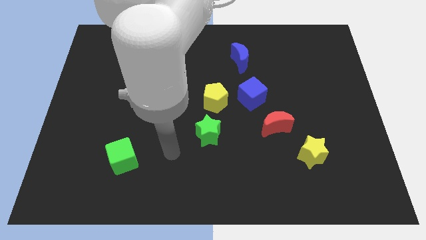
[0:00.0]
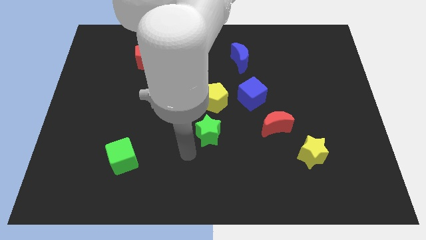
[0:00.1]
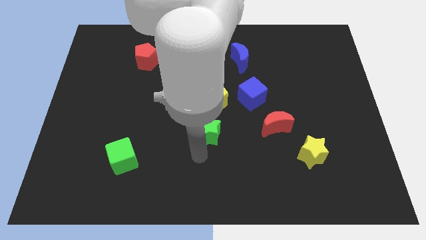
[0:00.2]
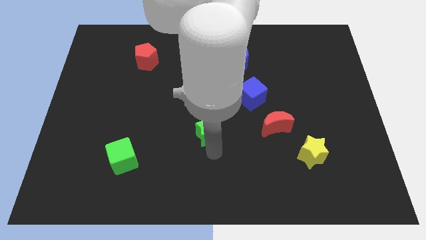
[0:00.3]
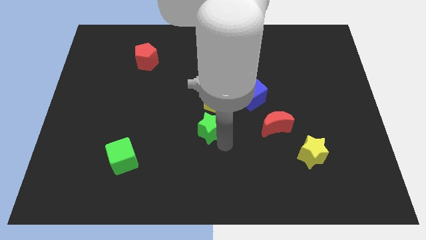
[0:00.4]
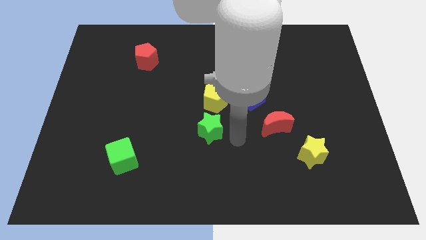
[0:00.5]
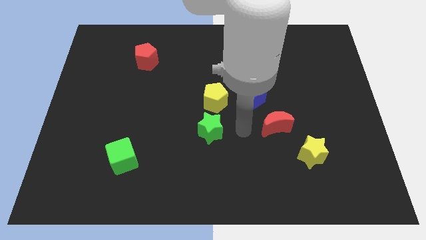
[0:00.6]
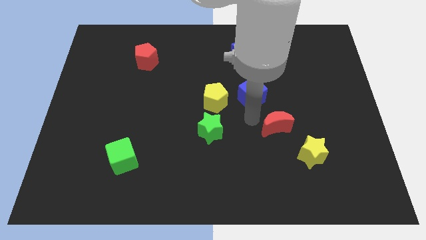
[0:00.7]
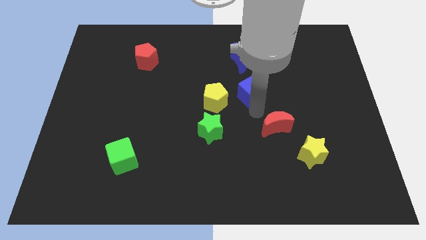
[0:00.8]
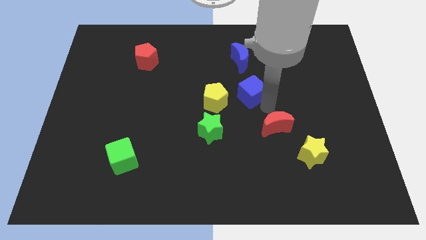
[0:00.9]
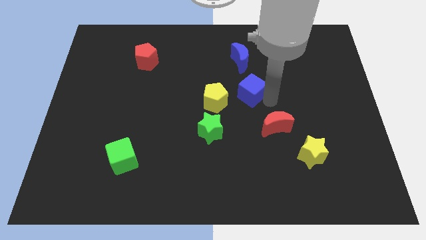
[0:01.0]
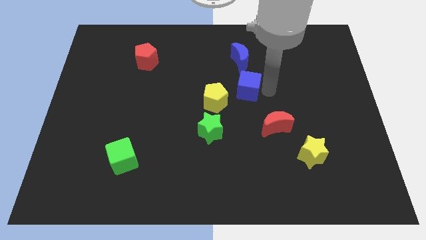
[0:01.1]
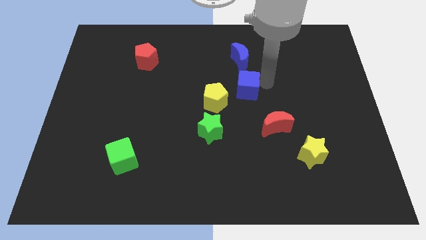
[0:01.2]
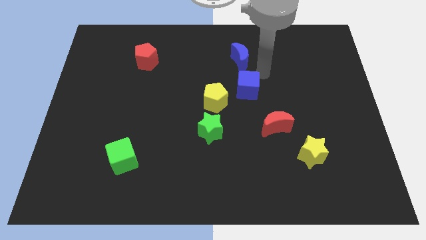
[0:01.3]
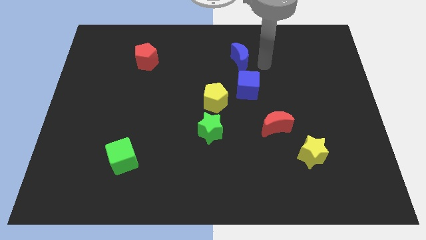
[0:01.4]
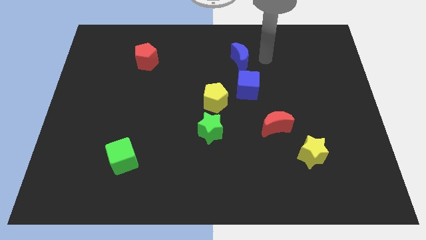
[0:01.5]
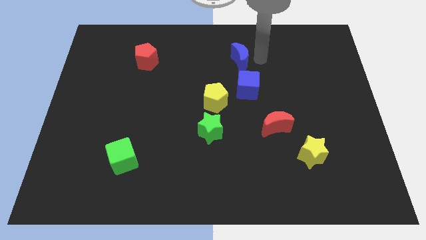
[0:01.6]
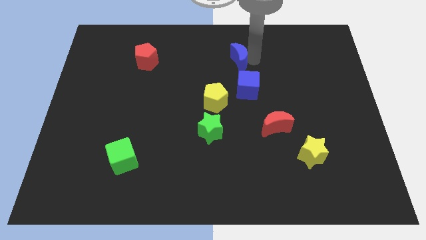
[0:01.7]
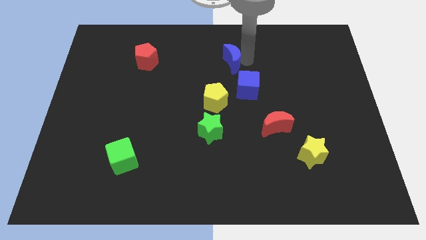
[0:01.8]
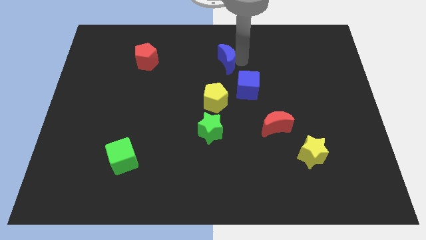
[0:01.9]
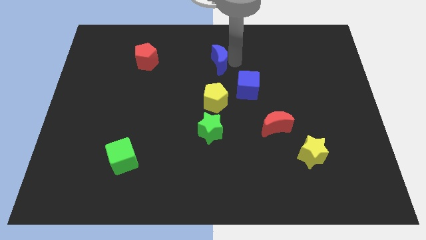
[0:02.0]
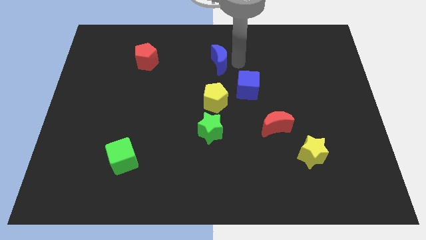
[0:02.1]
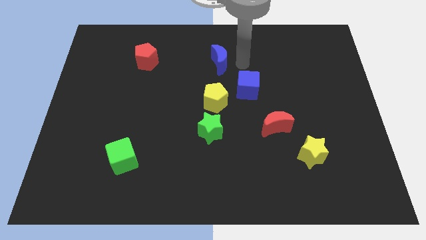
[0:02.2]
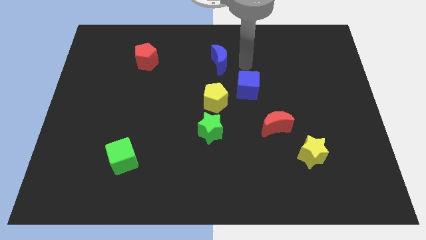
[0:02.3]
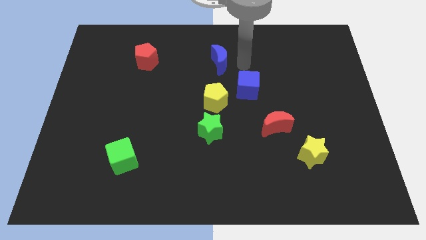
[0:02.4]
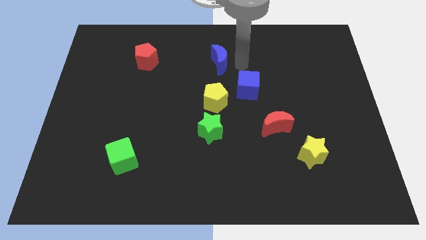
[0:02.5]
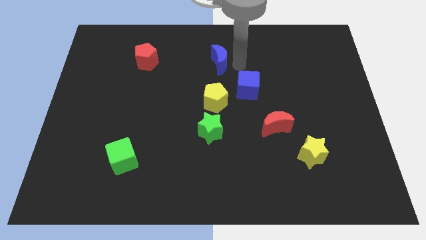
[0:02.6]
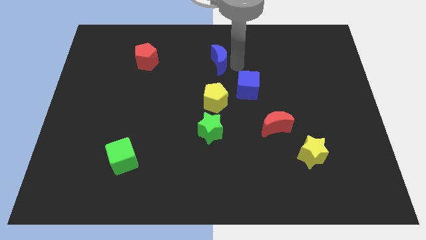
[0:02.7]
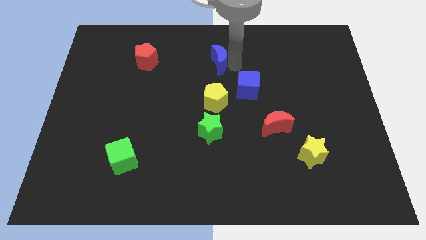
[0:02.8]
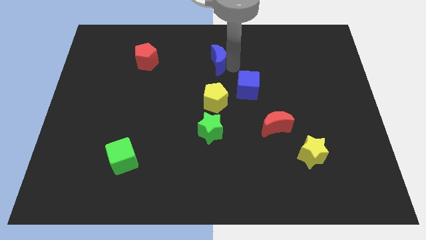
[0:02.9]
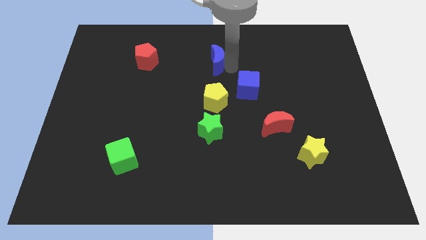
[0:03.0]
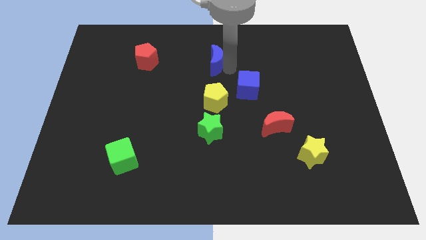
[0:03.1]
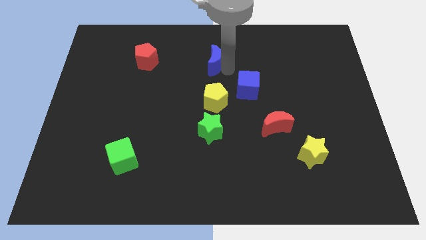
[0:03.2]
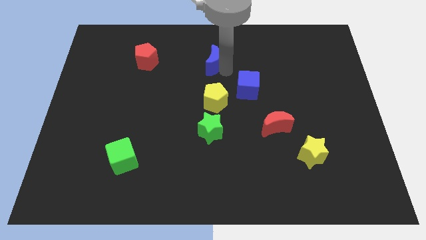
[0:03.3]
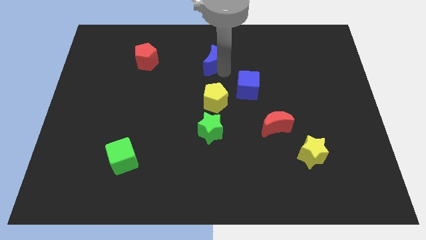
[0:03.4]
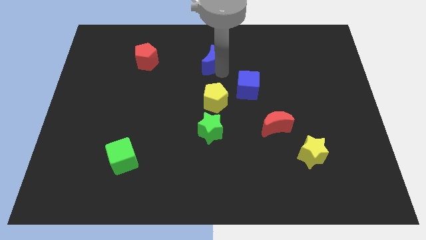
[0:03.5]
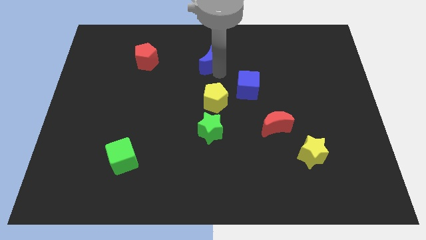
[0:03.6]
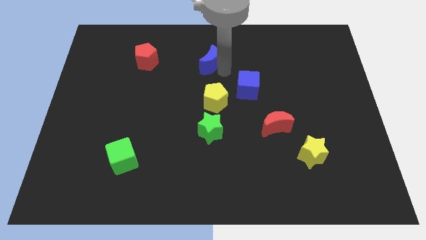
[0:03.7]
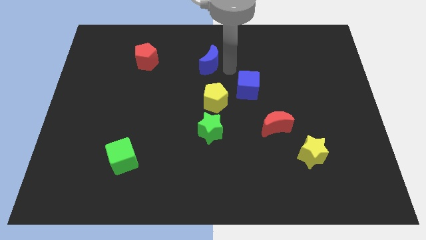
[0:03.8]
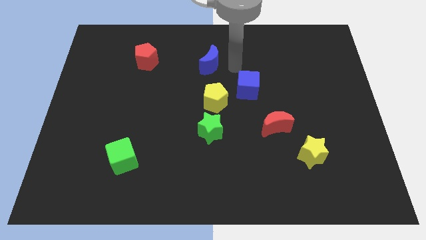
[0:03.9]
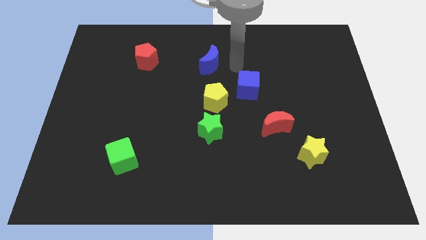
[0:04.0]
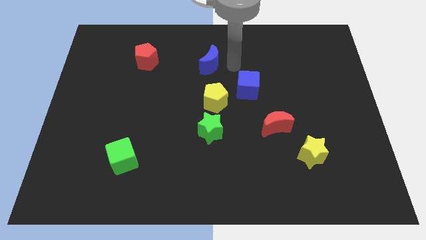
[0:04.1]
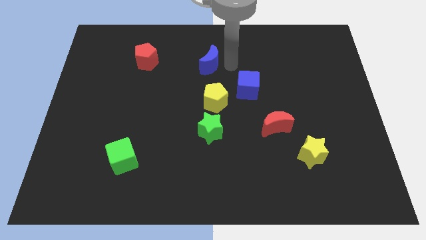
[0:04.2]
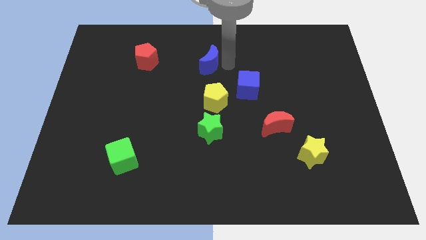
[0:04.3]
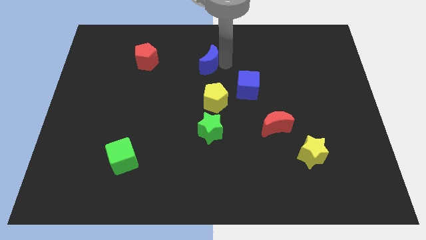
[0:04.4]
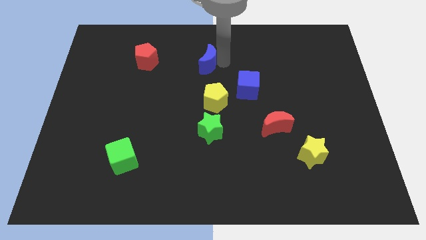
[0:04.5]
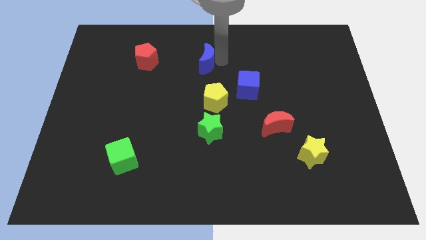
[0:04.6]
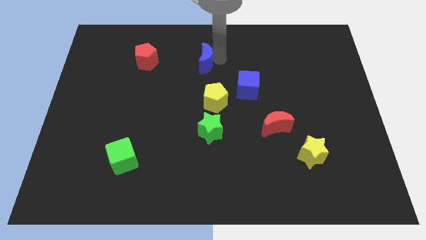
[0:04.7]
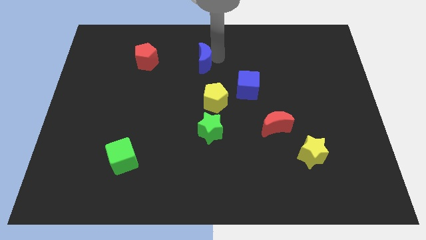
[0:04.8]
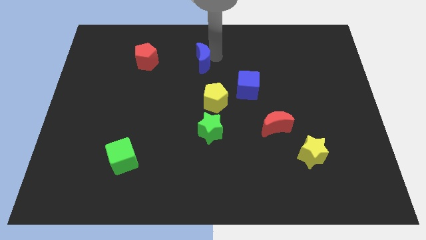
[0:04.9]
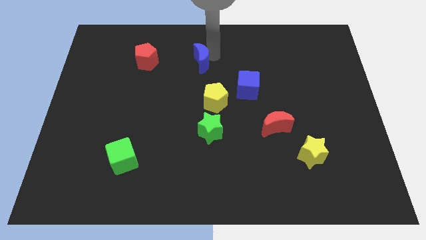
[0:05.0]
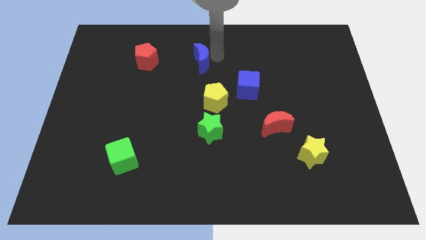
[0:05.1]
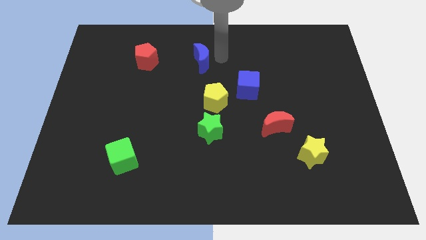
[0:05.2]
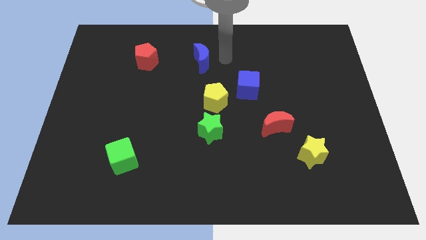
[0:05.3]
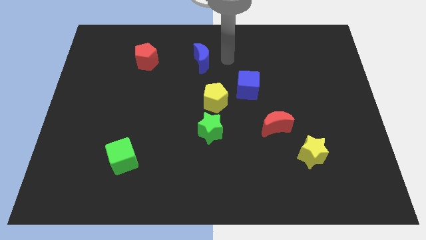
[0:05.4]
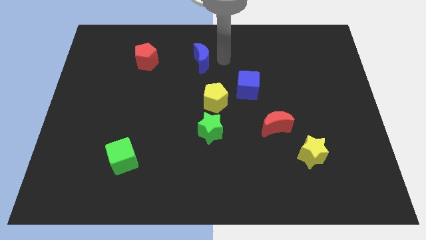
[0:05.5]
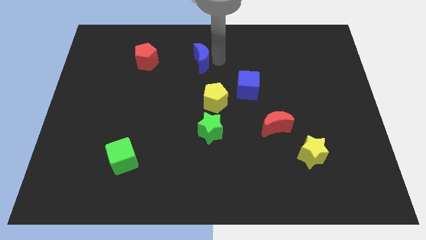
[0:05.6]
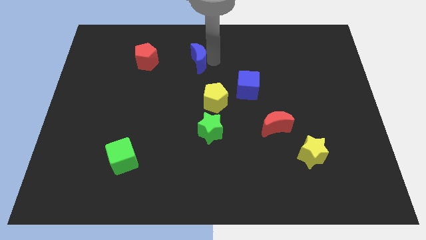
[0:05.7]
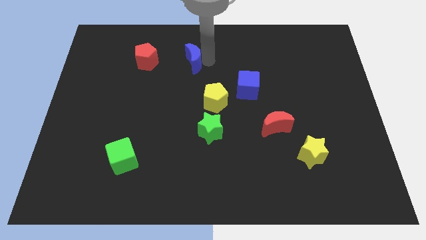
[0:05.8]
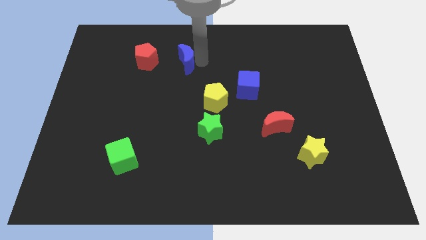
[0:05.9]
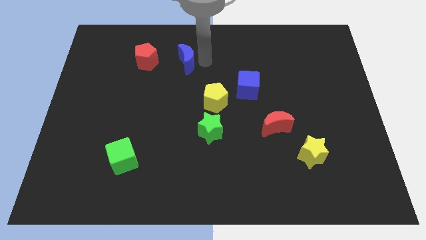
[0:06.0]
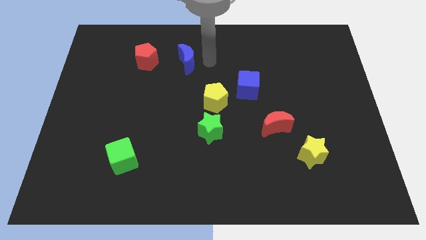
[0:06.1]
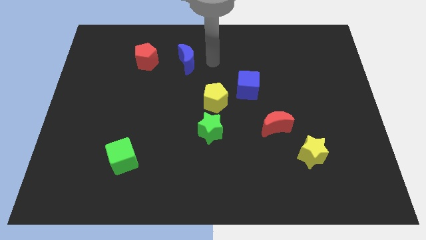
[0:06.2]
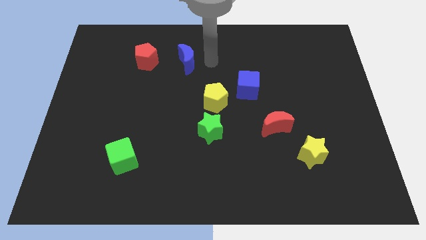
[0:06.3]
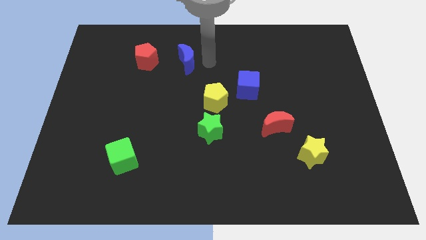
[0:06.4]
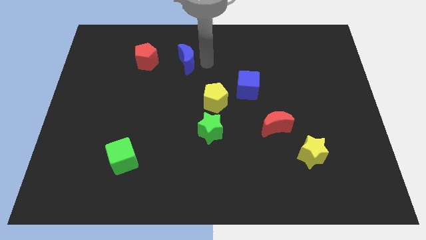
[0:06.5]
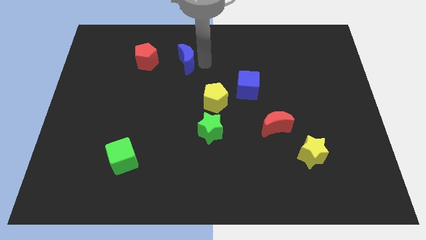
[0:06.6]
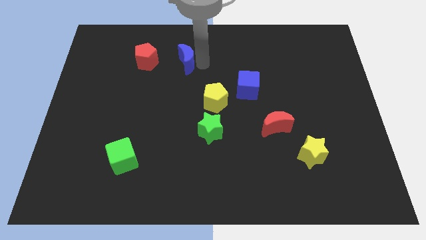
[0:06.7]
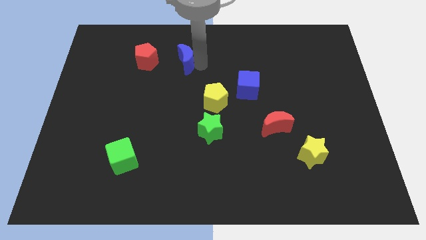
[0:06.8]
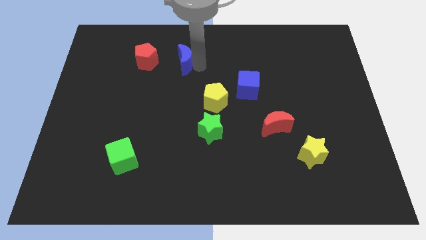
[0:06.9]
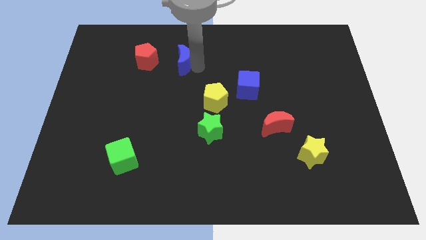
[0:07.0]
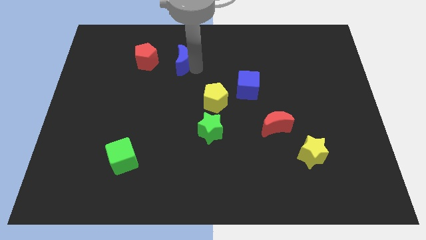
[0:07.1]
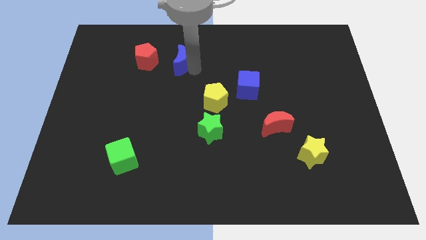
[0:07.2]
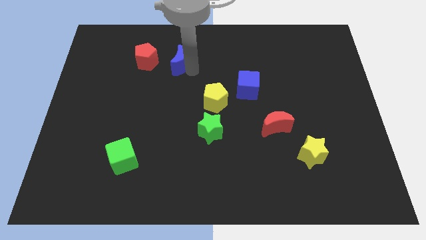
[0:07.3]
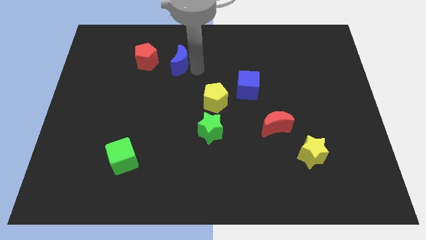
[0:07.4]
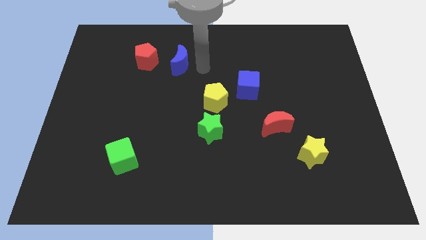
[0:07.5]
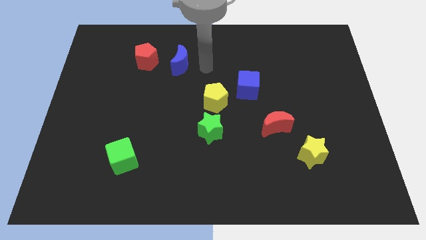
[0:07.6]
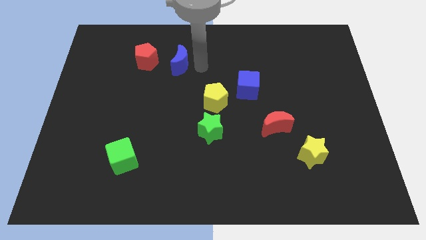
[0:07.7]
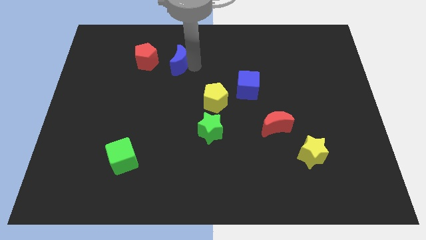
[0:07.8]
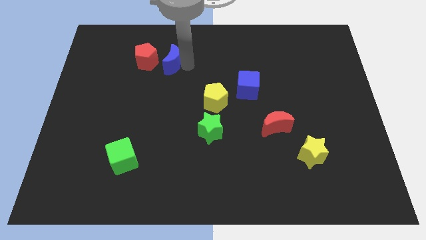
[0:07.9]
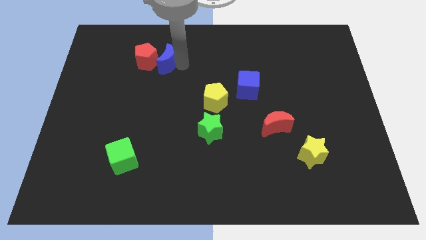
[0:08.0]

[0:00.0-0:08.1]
put the blue moon close to the red pentagon
